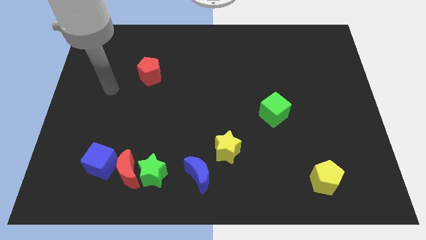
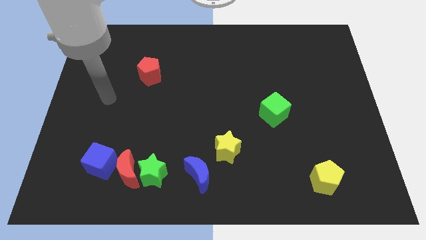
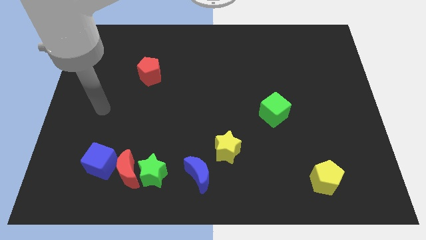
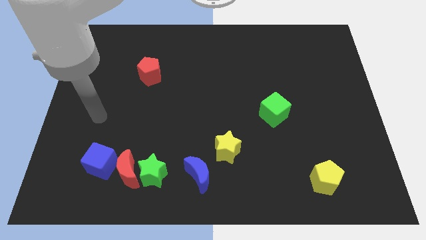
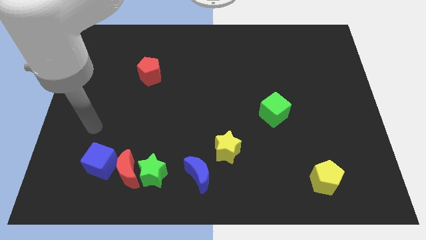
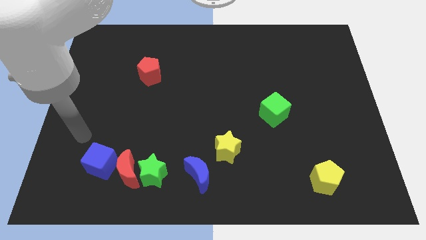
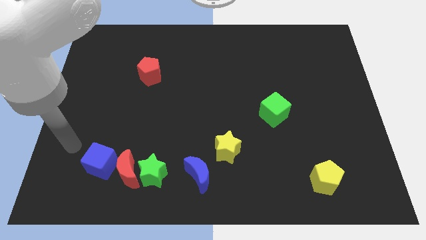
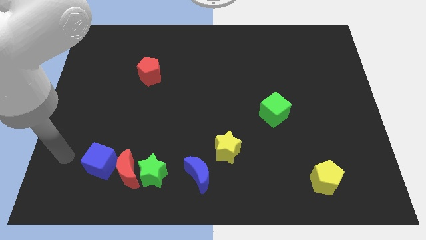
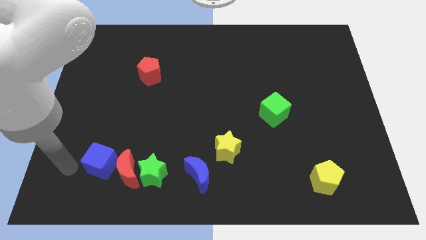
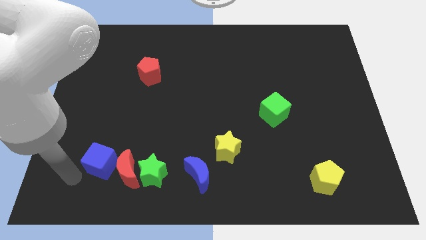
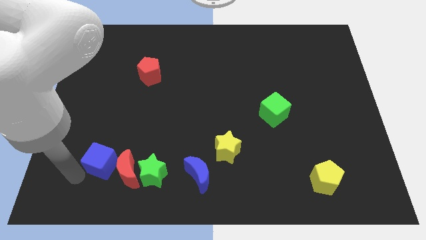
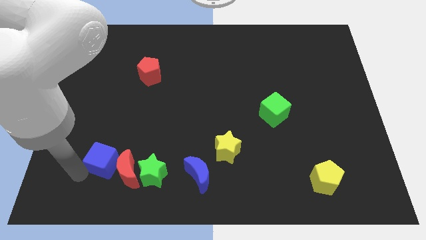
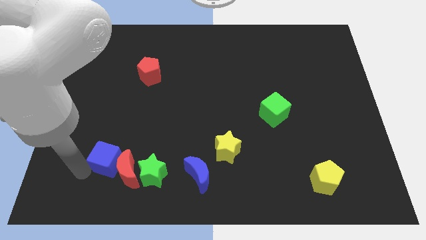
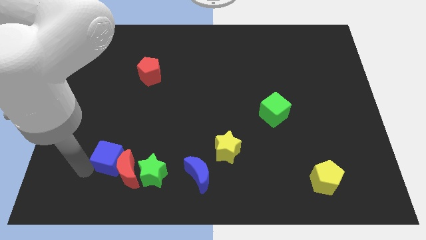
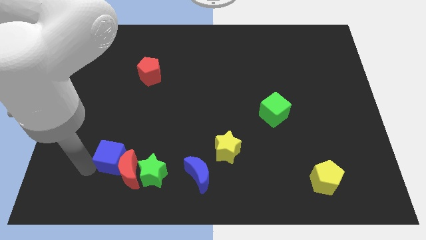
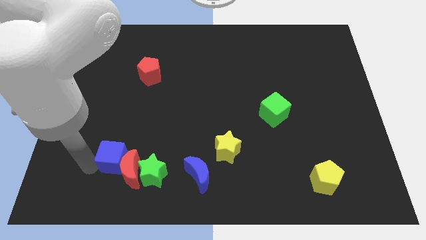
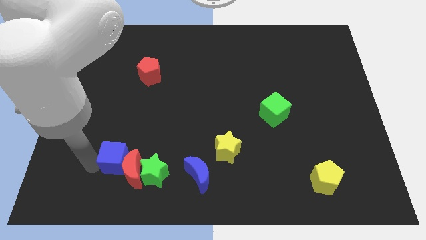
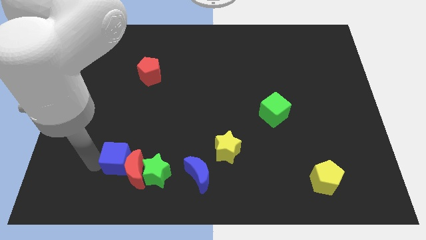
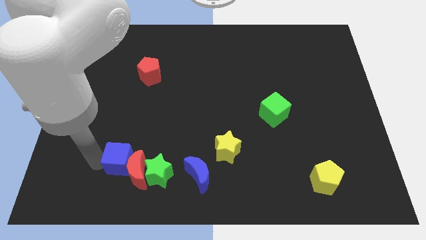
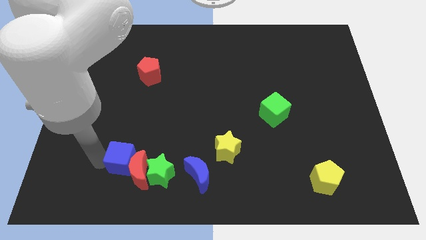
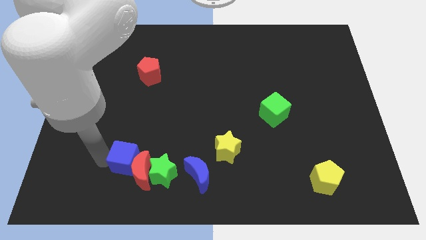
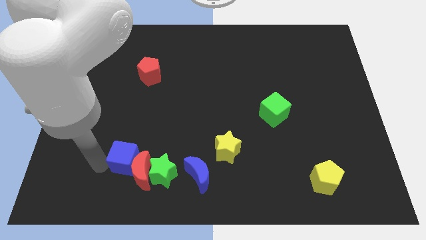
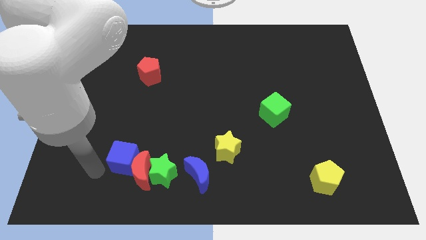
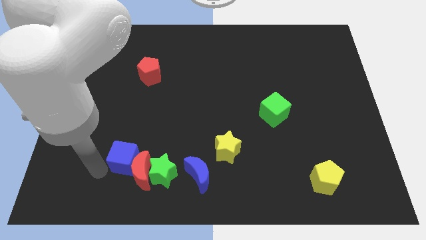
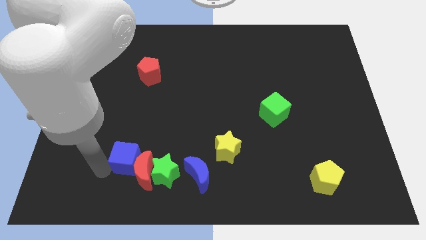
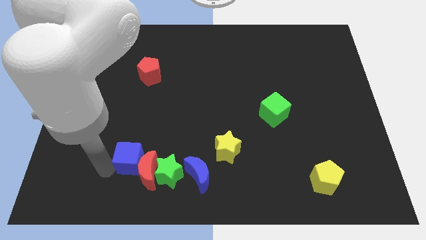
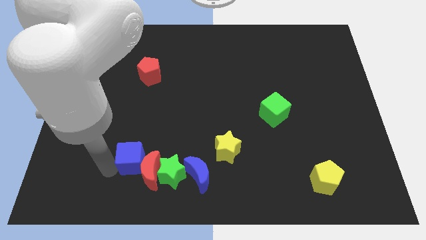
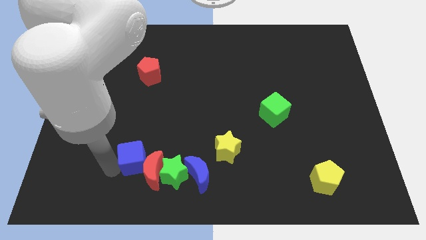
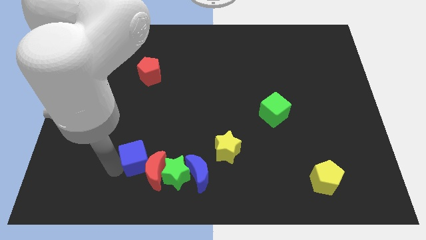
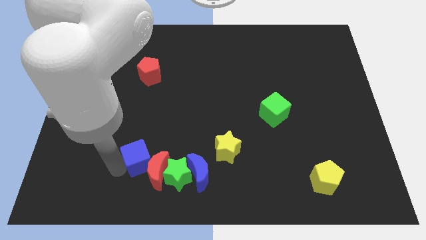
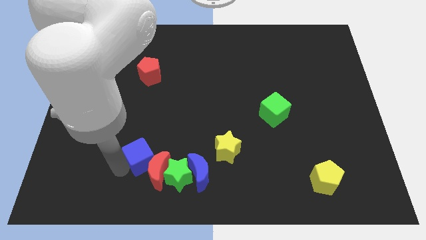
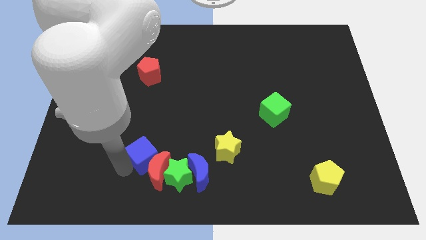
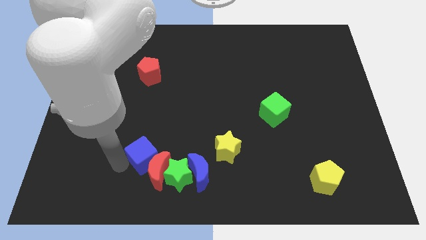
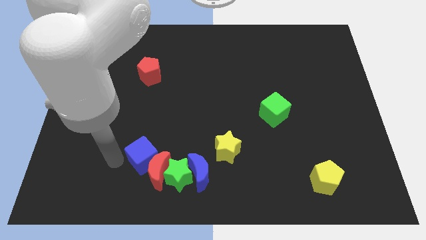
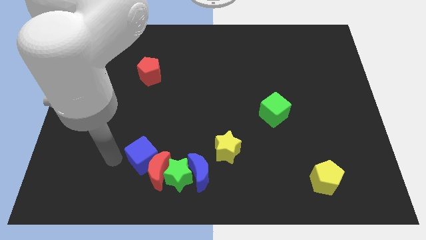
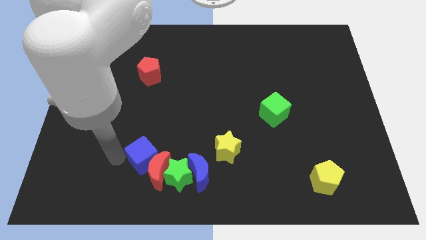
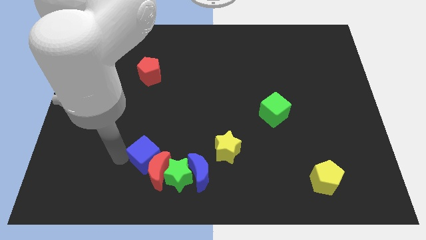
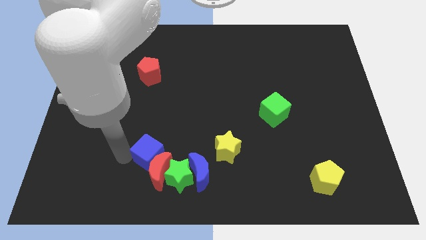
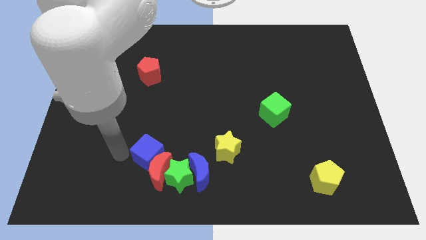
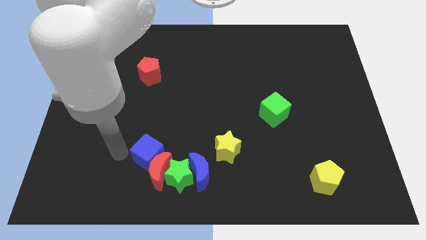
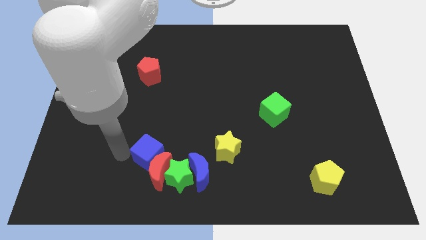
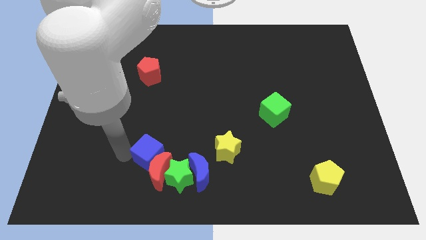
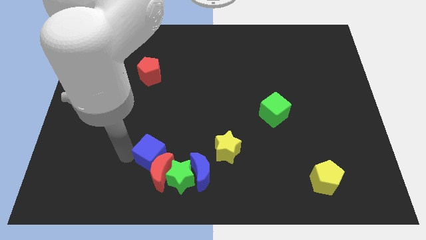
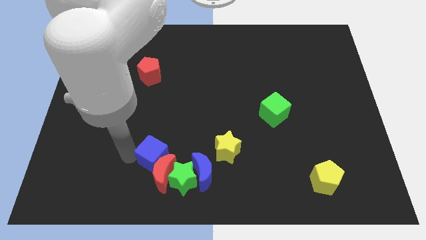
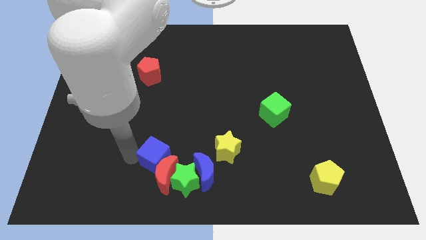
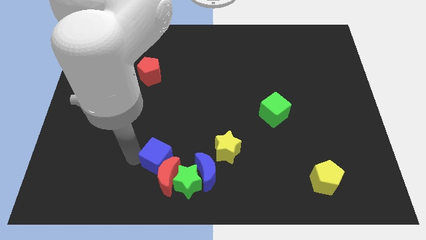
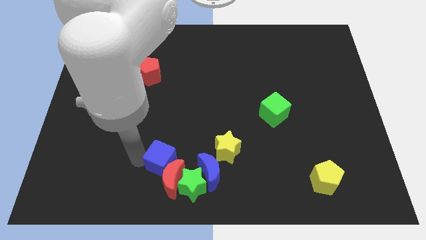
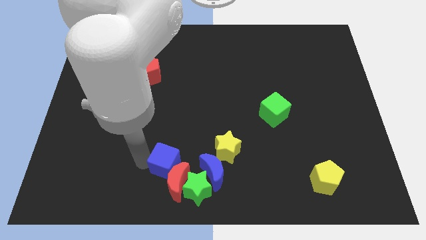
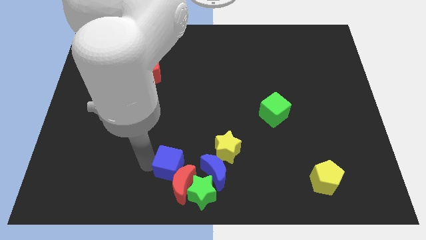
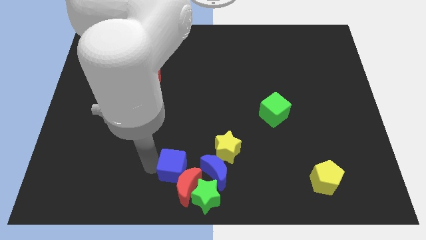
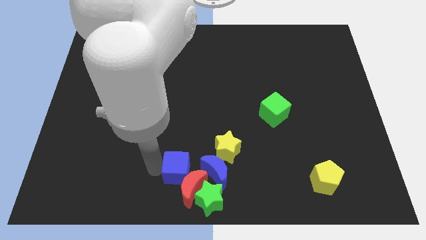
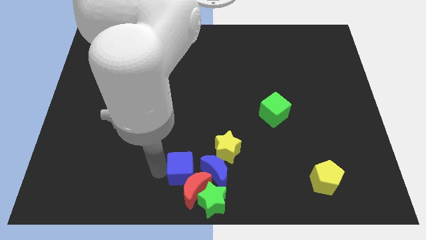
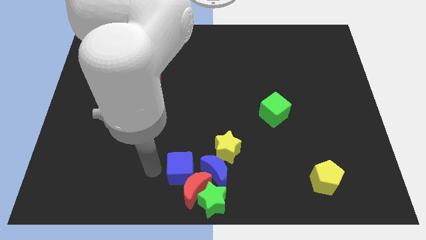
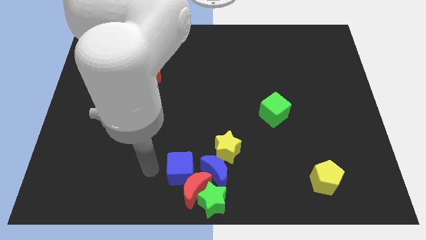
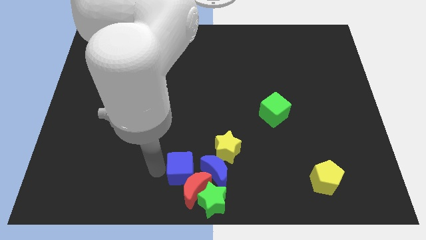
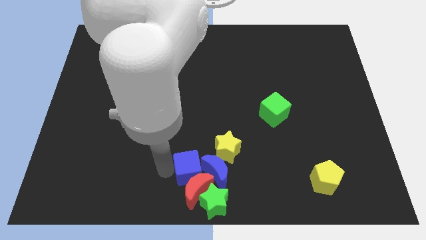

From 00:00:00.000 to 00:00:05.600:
move the blue cube close to the blue moon

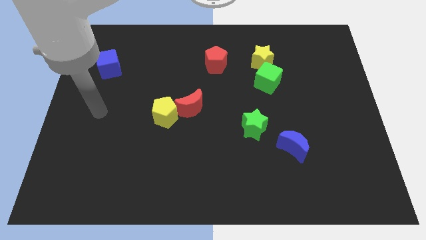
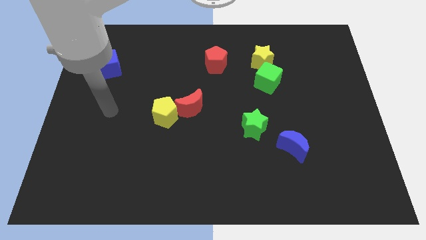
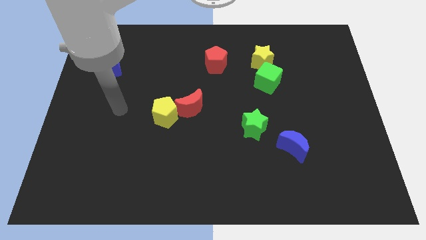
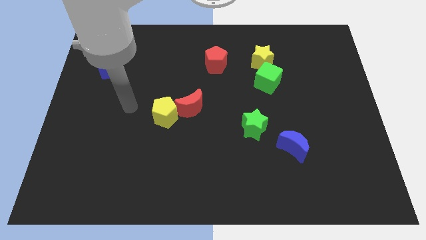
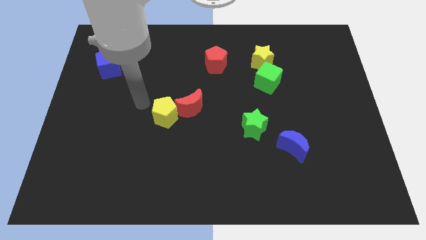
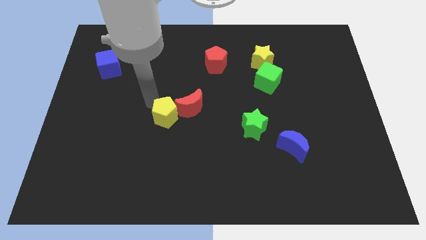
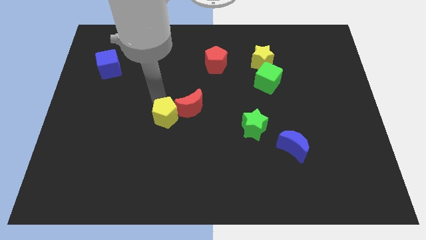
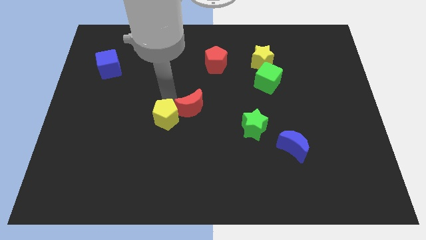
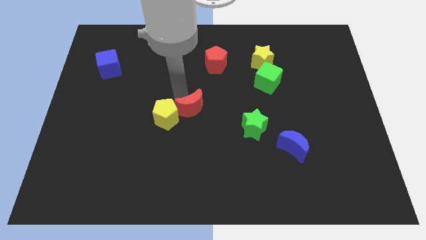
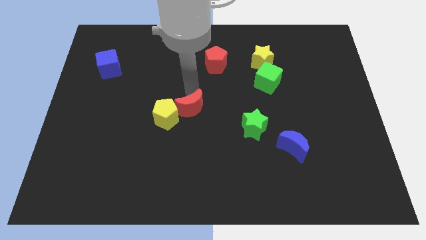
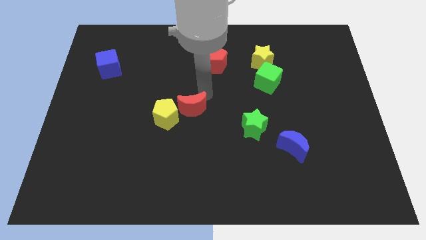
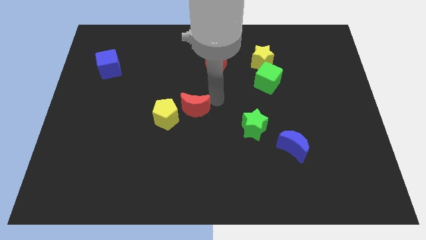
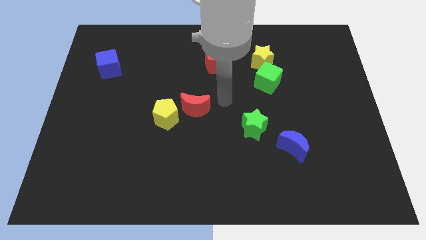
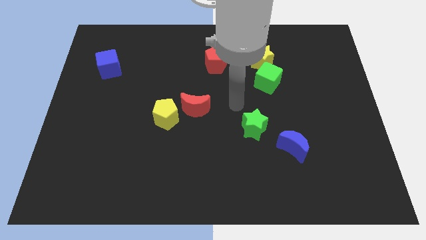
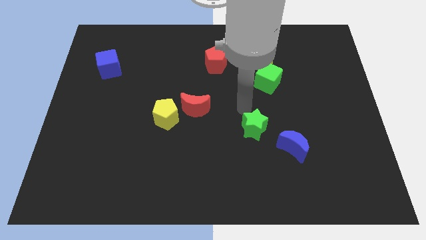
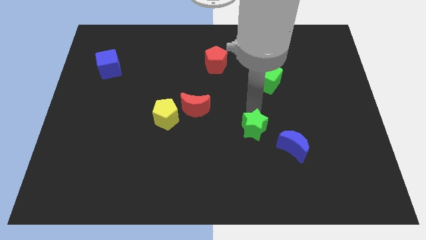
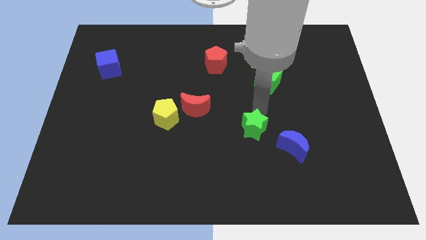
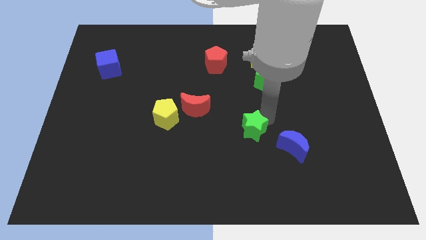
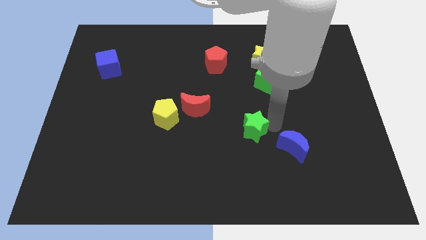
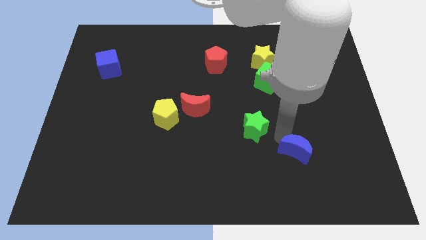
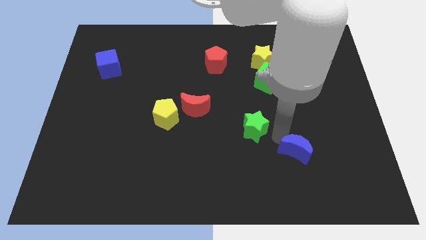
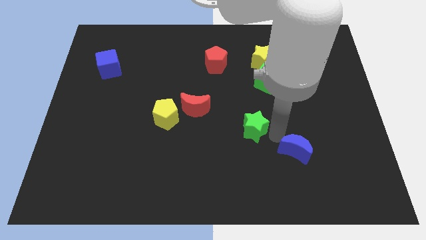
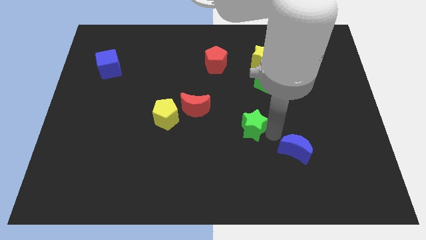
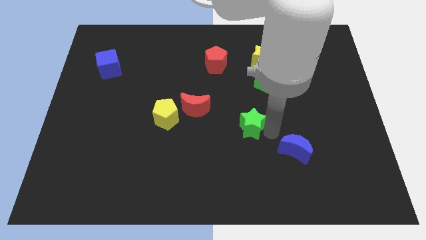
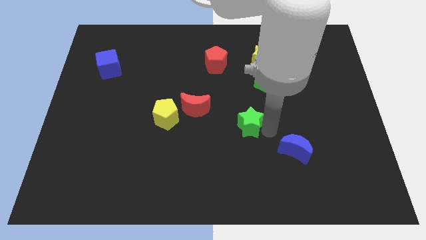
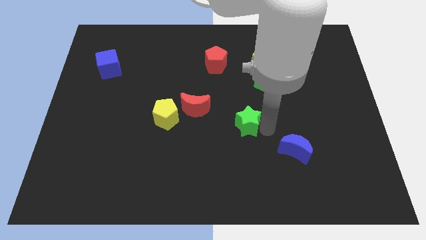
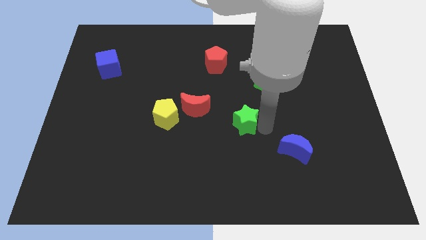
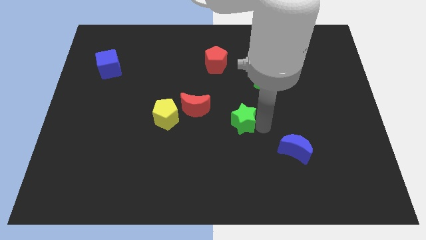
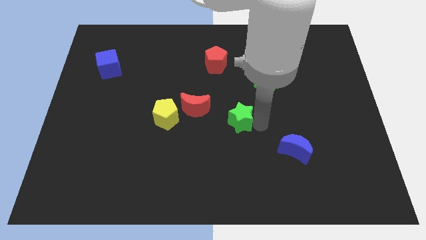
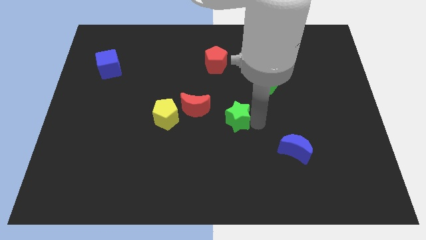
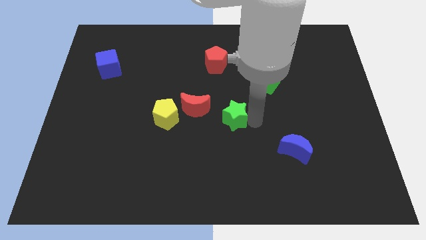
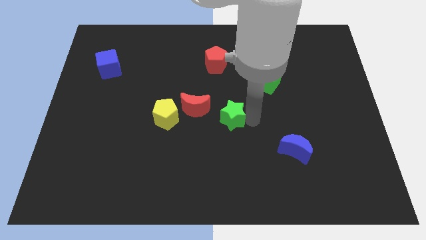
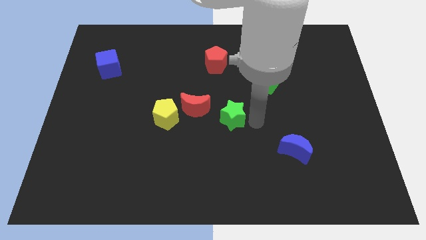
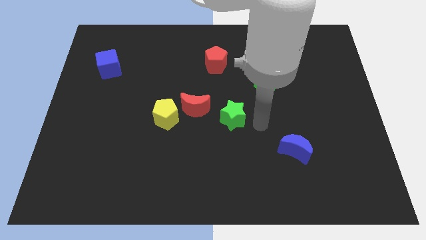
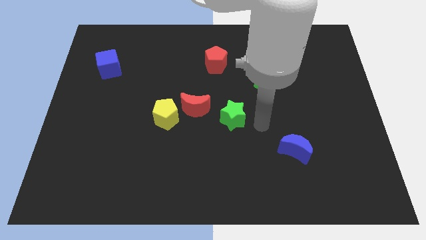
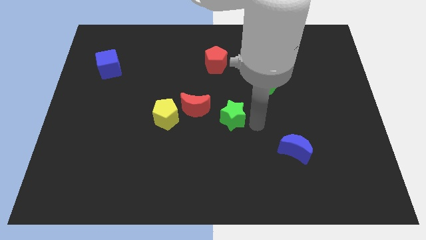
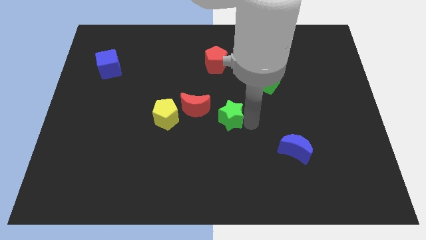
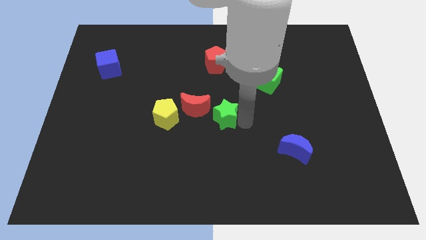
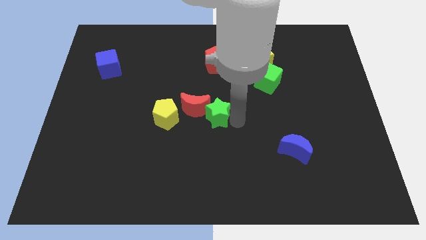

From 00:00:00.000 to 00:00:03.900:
slide the green star to the red moon
